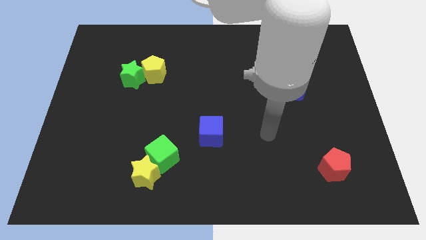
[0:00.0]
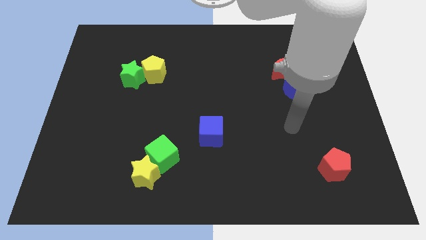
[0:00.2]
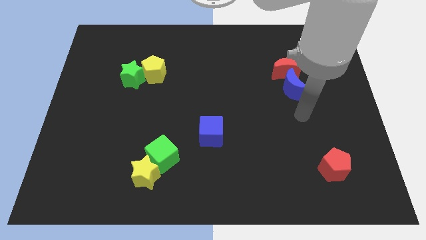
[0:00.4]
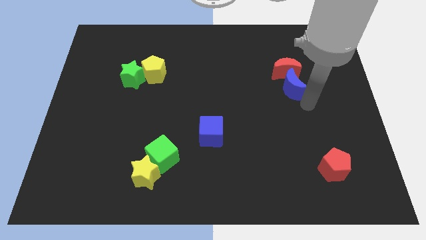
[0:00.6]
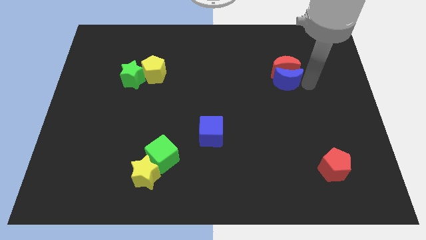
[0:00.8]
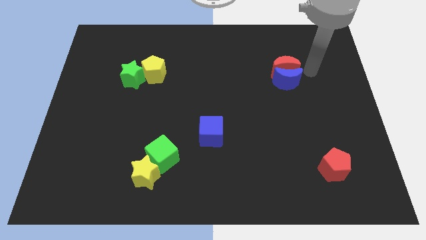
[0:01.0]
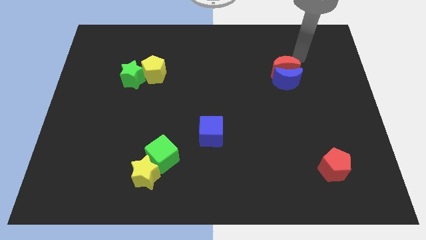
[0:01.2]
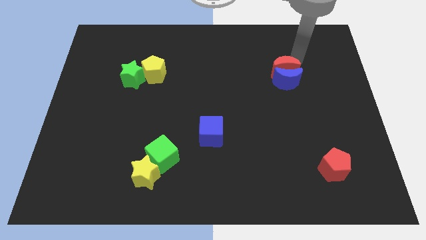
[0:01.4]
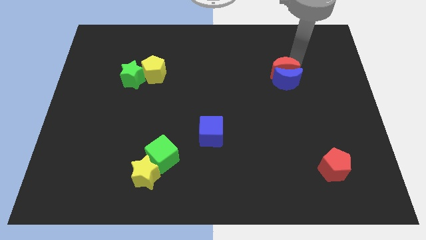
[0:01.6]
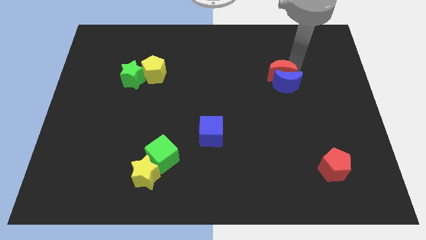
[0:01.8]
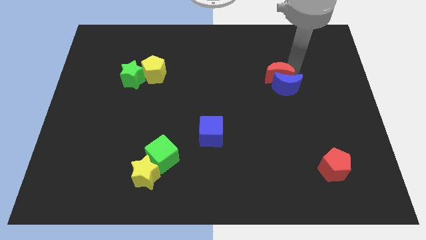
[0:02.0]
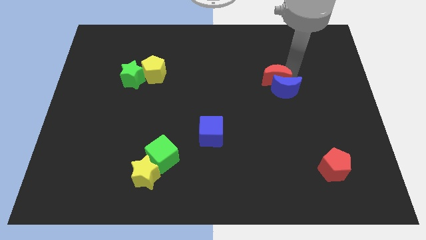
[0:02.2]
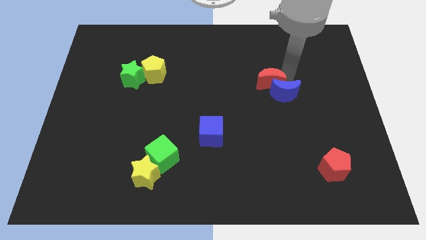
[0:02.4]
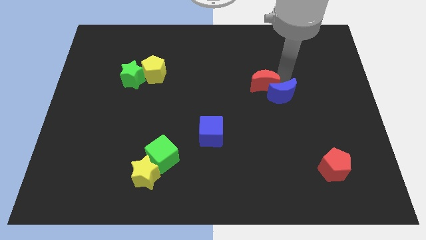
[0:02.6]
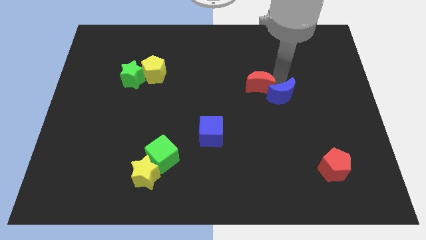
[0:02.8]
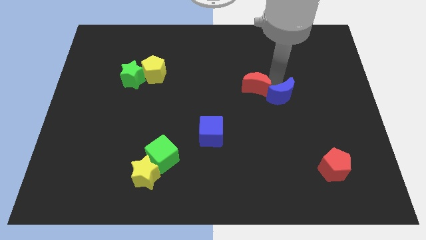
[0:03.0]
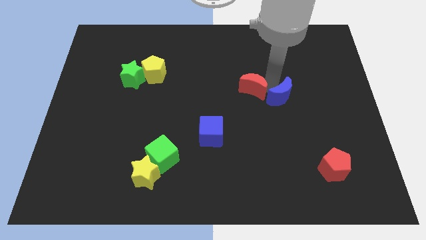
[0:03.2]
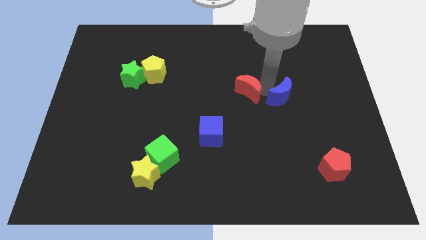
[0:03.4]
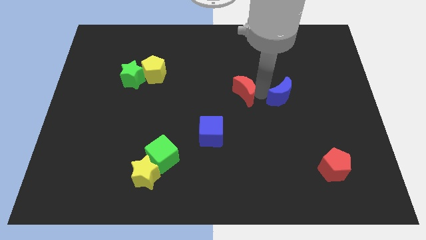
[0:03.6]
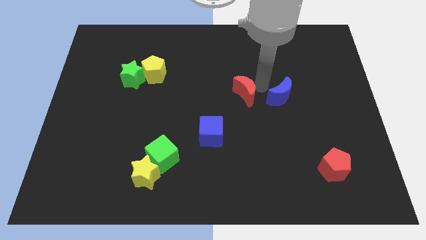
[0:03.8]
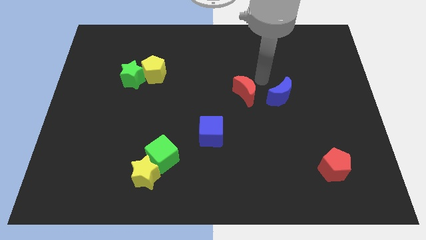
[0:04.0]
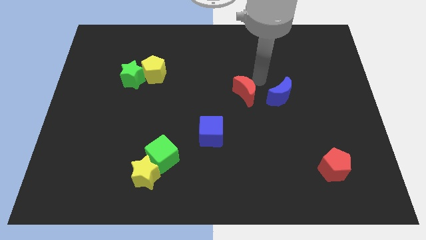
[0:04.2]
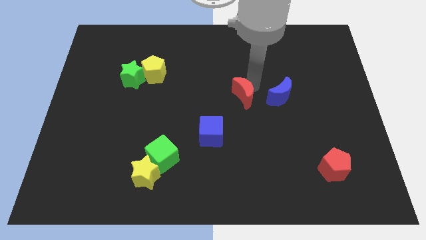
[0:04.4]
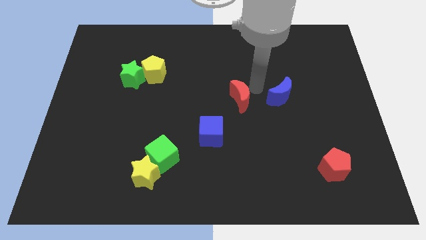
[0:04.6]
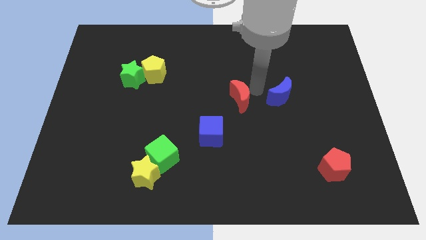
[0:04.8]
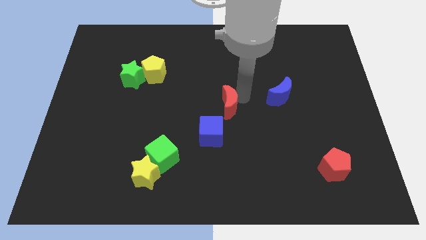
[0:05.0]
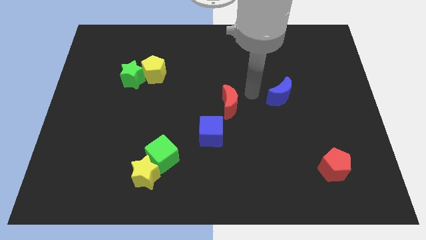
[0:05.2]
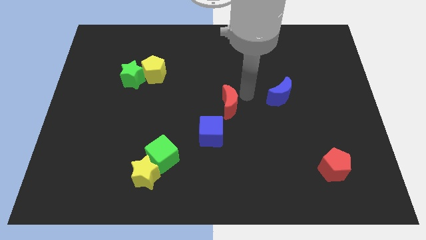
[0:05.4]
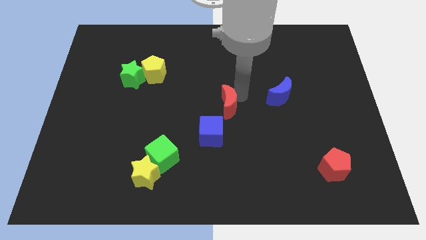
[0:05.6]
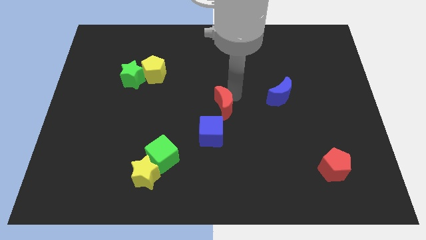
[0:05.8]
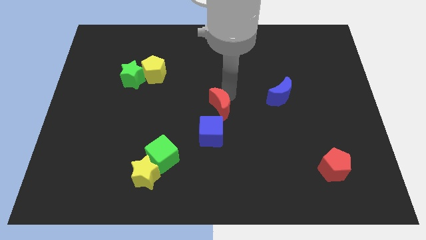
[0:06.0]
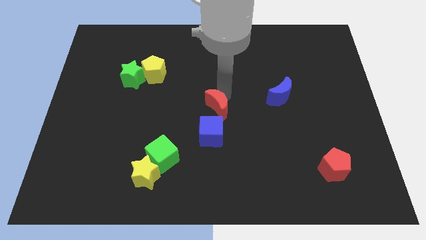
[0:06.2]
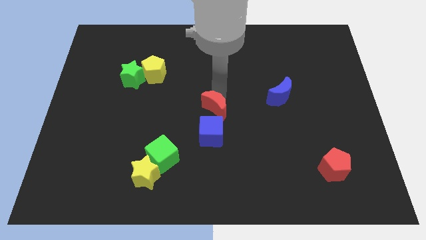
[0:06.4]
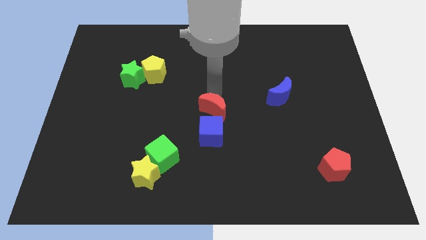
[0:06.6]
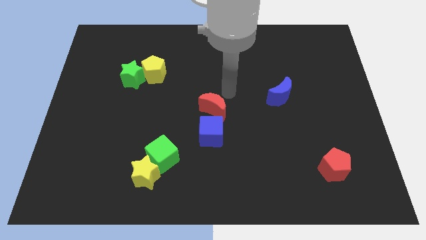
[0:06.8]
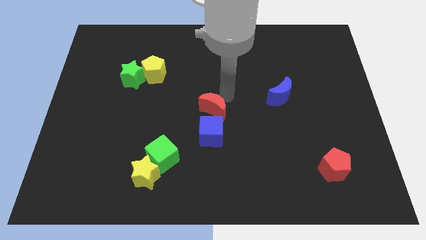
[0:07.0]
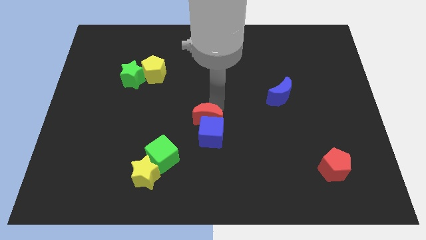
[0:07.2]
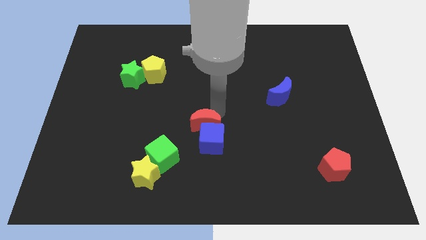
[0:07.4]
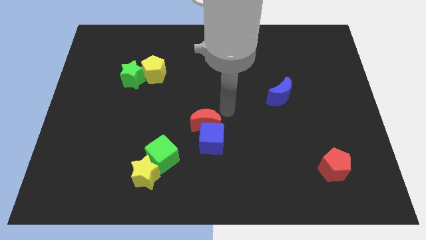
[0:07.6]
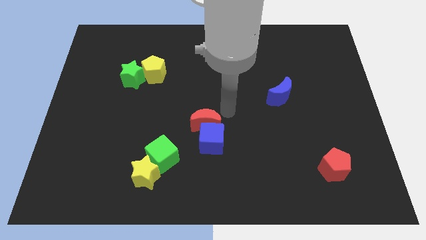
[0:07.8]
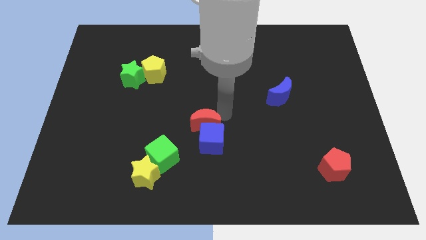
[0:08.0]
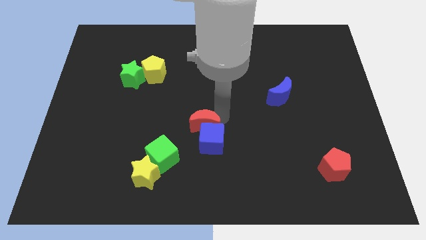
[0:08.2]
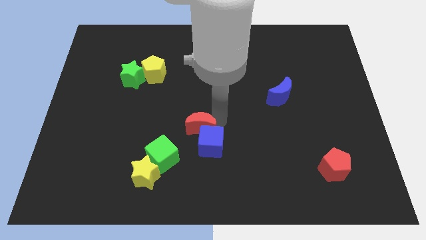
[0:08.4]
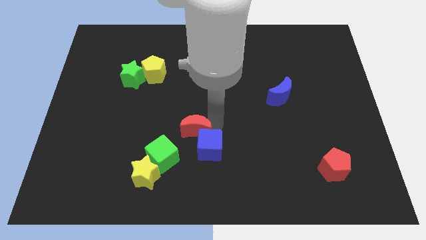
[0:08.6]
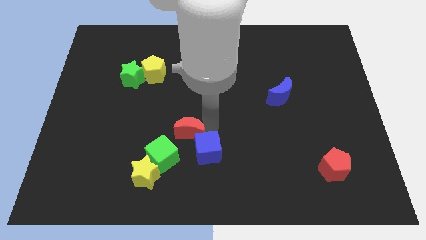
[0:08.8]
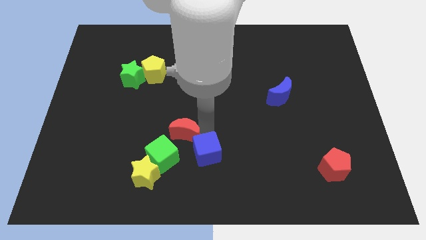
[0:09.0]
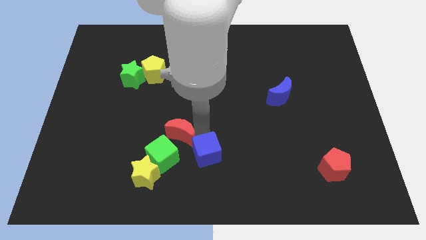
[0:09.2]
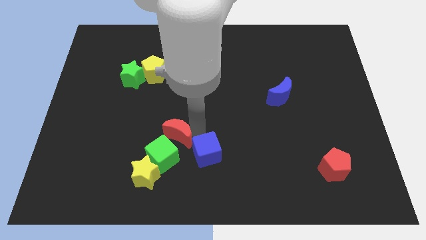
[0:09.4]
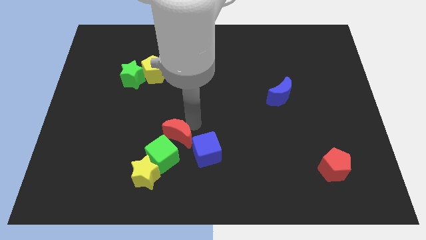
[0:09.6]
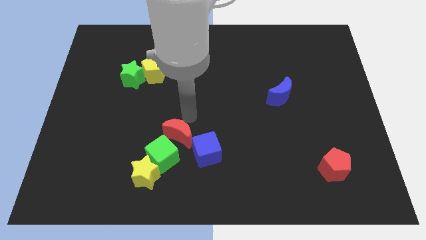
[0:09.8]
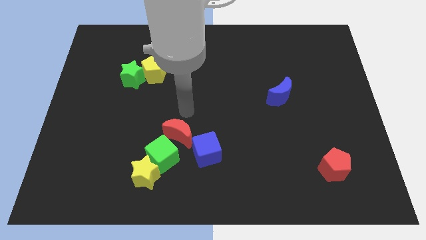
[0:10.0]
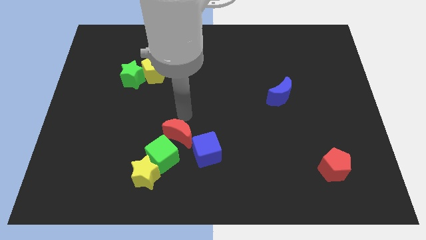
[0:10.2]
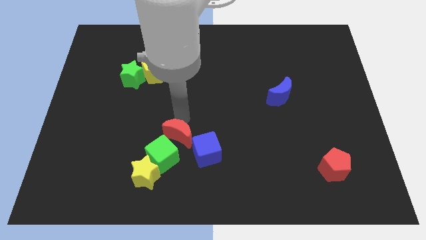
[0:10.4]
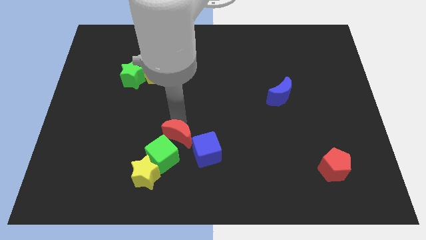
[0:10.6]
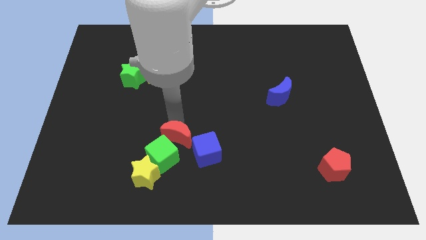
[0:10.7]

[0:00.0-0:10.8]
put the red moon close to the green cube

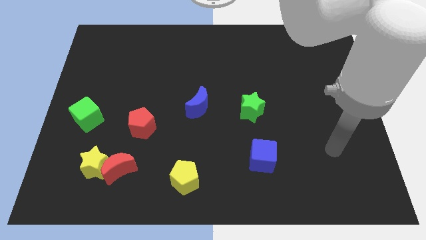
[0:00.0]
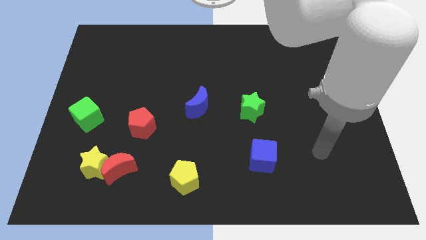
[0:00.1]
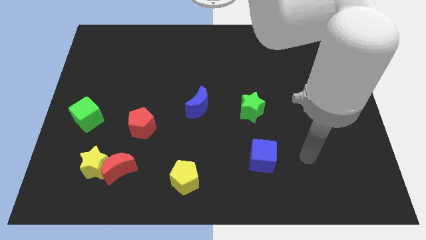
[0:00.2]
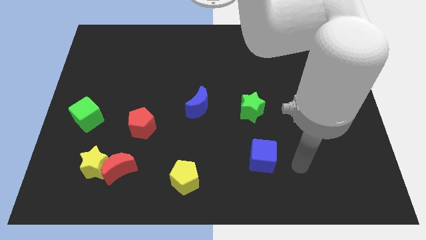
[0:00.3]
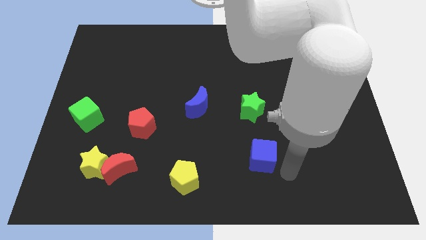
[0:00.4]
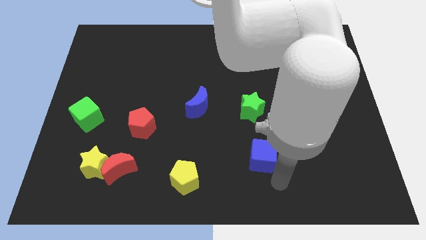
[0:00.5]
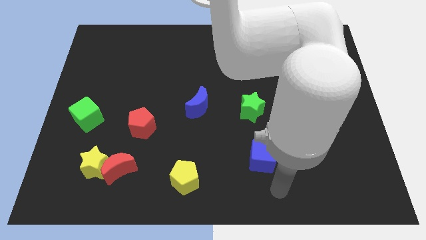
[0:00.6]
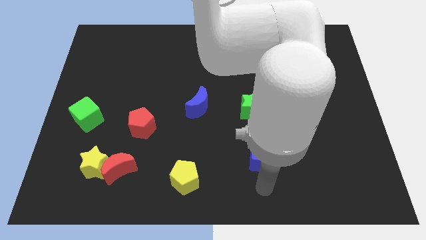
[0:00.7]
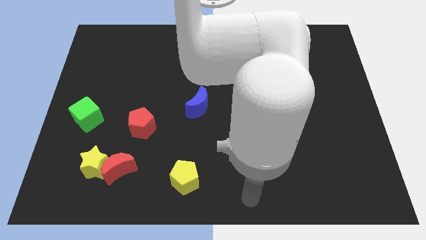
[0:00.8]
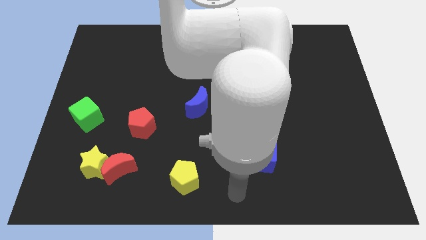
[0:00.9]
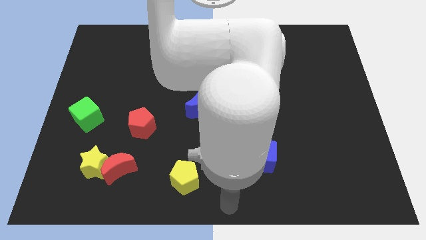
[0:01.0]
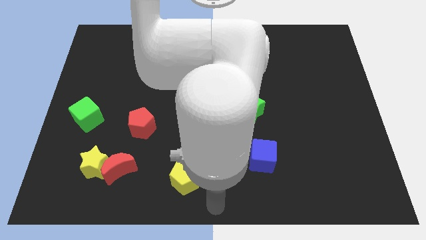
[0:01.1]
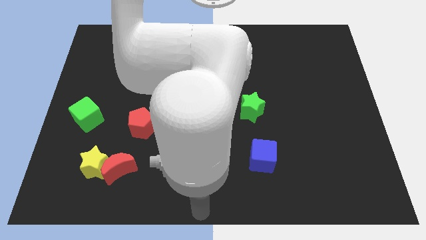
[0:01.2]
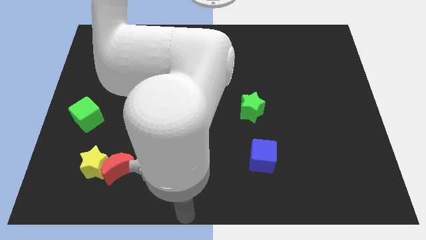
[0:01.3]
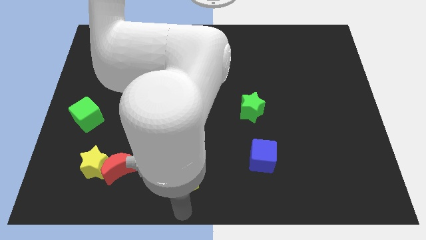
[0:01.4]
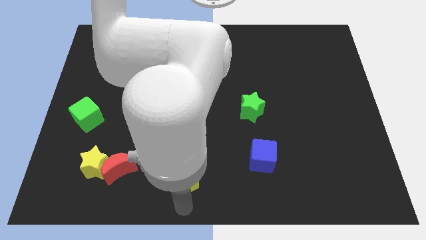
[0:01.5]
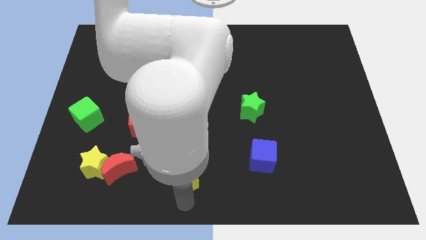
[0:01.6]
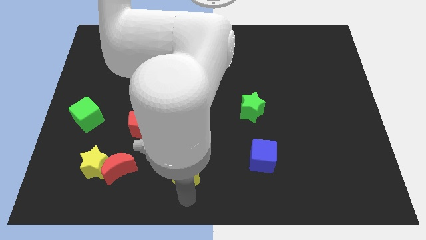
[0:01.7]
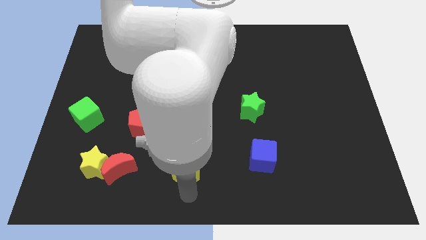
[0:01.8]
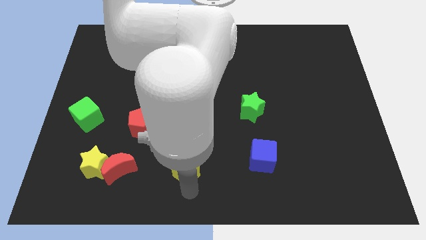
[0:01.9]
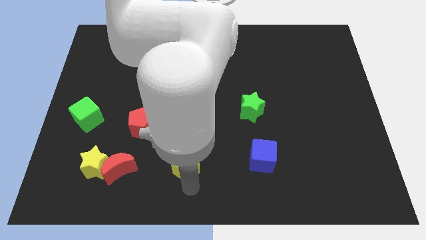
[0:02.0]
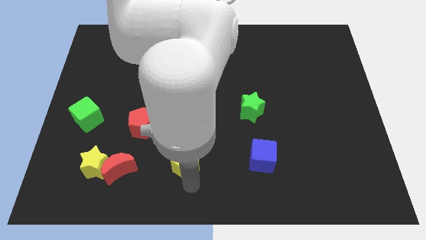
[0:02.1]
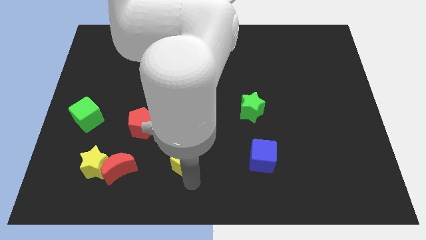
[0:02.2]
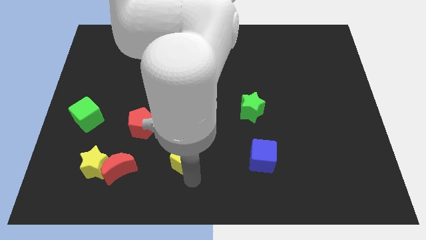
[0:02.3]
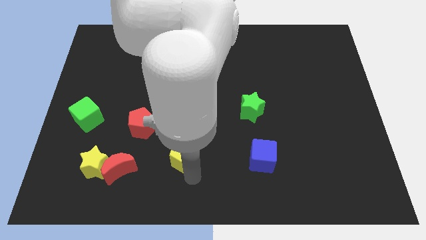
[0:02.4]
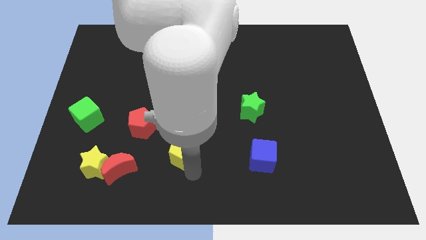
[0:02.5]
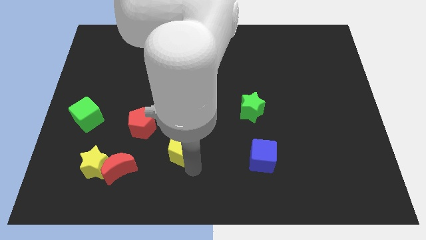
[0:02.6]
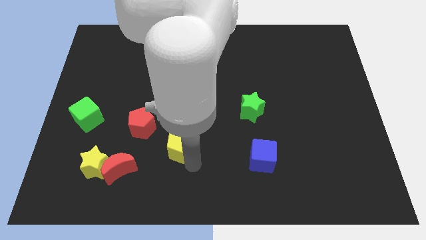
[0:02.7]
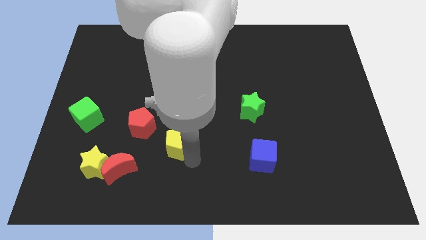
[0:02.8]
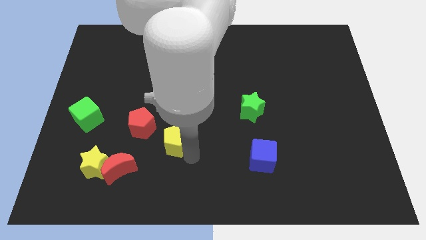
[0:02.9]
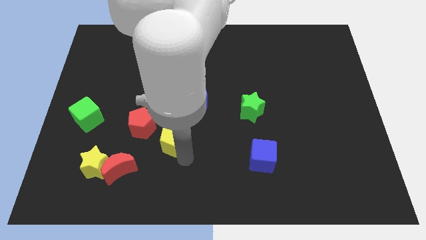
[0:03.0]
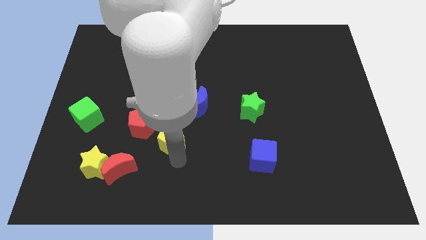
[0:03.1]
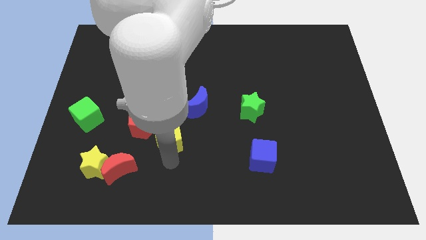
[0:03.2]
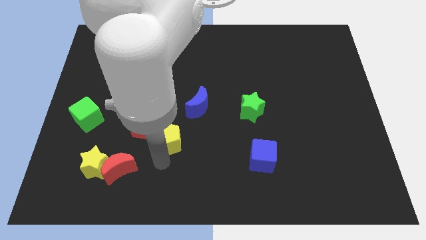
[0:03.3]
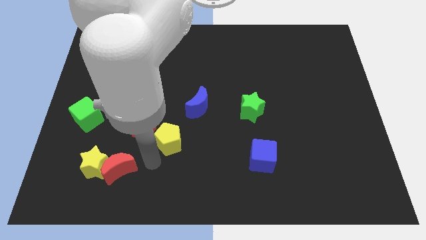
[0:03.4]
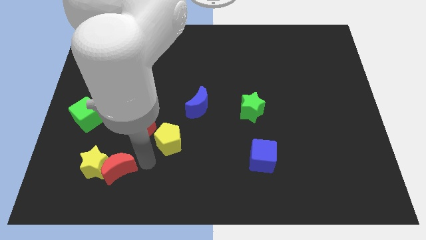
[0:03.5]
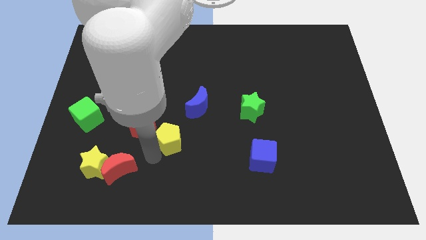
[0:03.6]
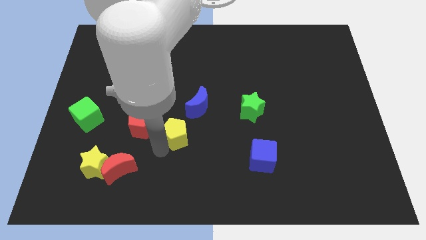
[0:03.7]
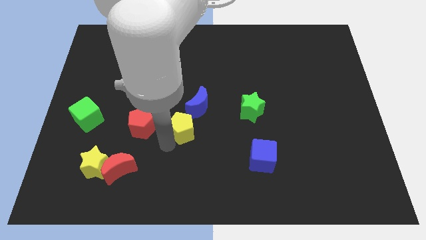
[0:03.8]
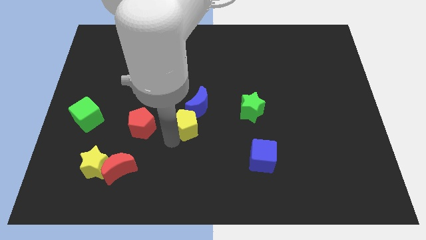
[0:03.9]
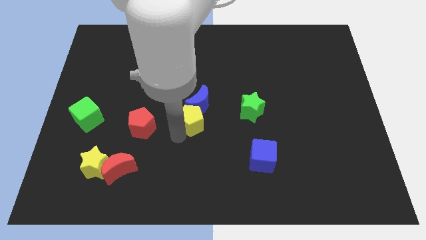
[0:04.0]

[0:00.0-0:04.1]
move the yellow pentagon to the blue moon
